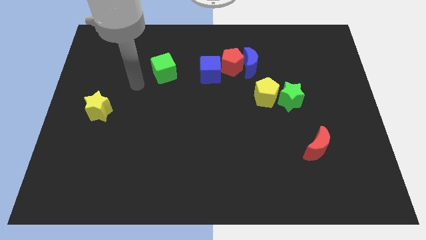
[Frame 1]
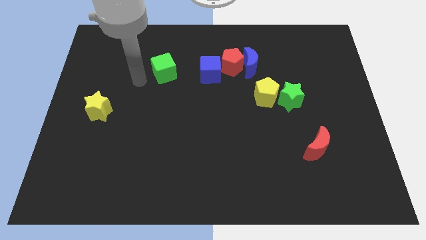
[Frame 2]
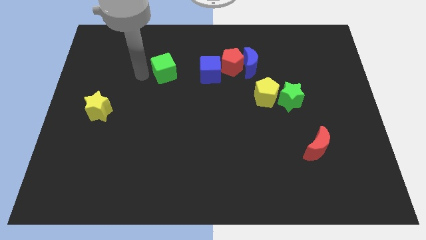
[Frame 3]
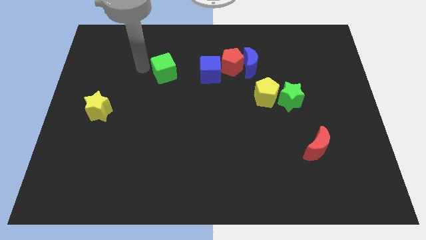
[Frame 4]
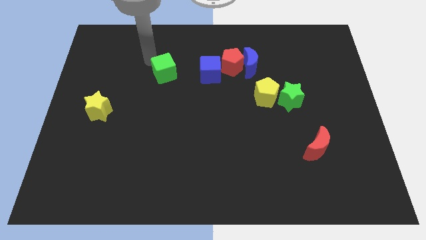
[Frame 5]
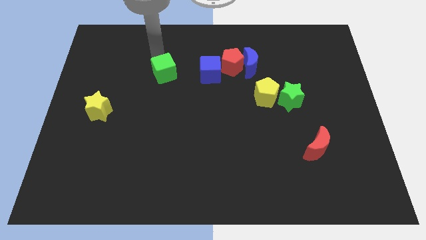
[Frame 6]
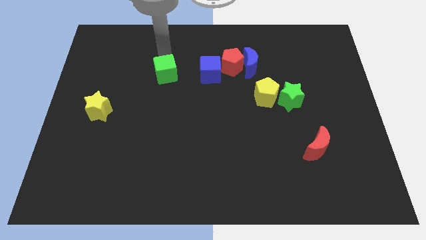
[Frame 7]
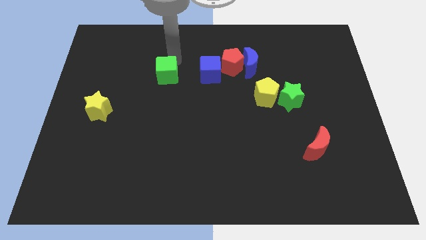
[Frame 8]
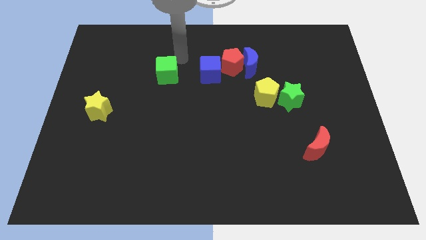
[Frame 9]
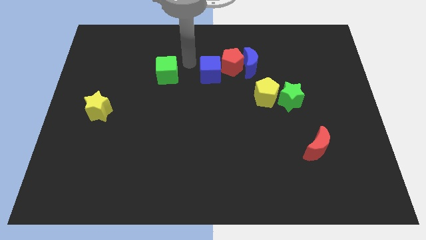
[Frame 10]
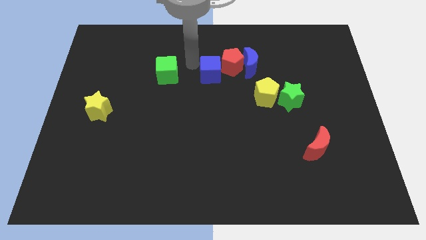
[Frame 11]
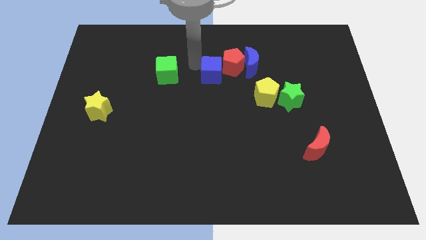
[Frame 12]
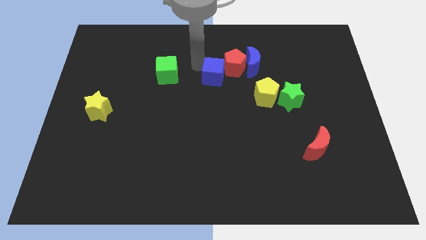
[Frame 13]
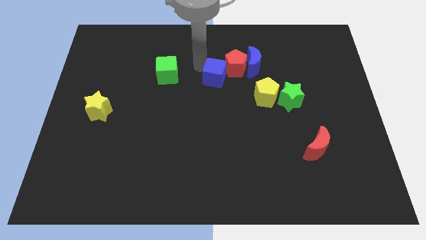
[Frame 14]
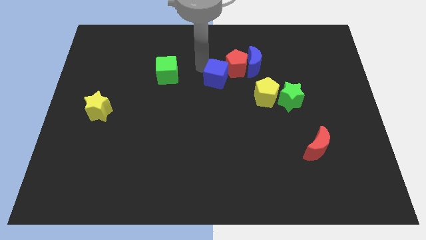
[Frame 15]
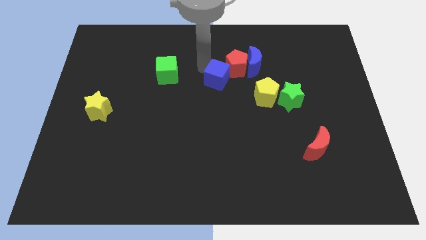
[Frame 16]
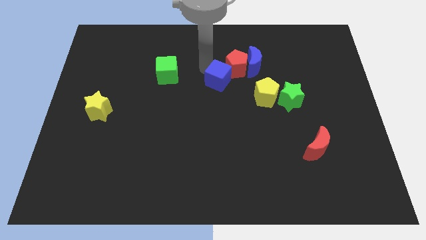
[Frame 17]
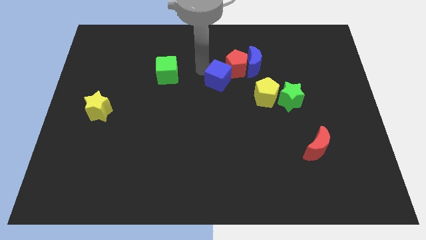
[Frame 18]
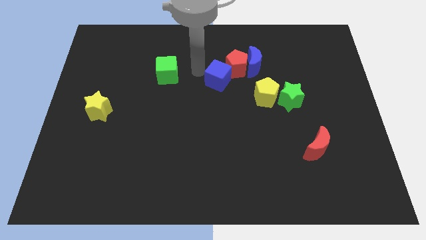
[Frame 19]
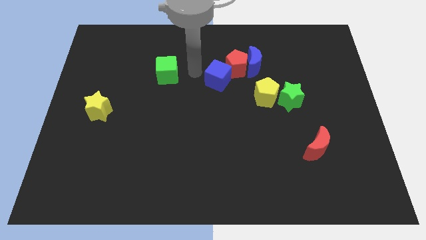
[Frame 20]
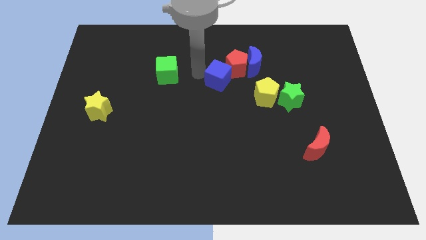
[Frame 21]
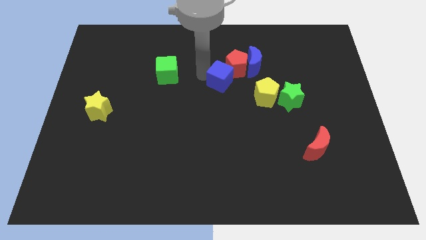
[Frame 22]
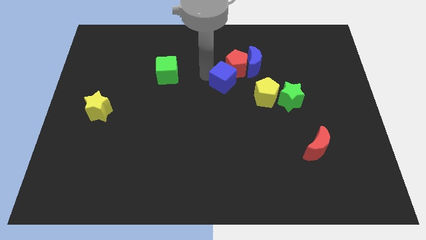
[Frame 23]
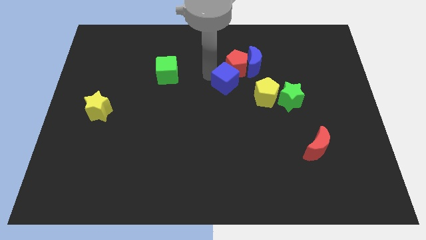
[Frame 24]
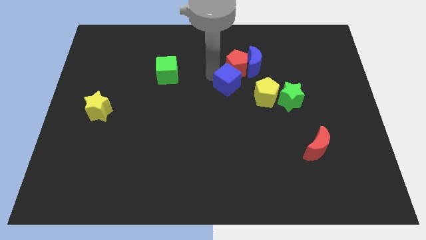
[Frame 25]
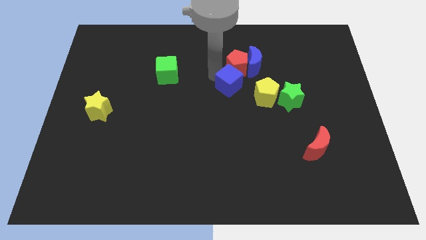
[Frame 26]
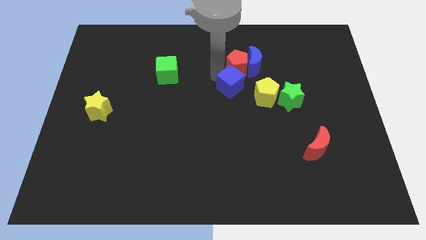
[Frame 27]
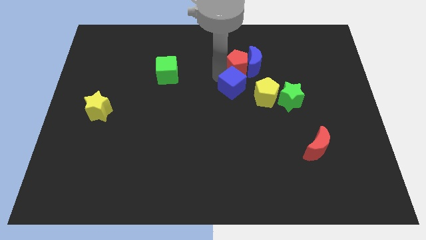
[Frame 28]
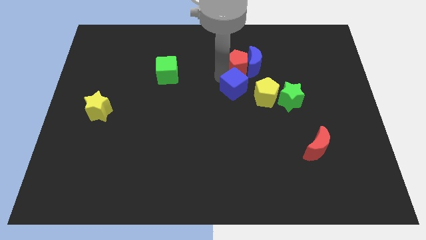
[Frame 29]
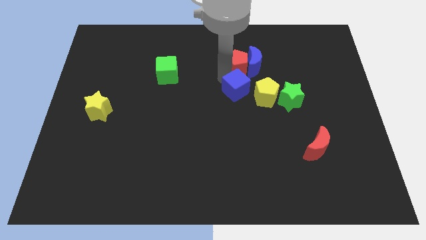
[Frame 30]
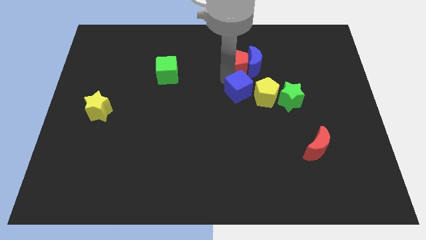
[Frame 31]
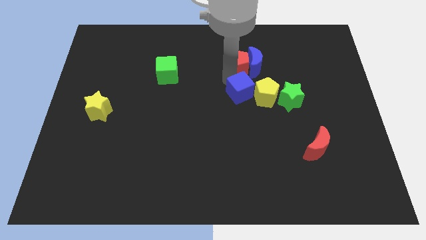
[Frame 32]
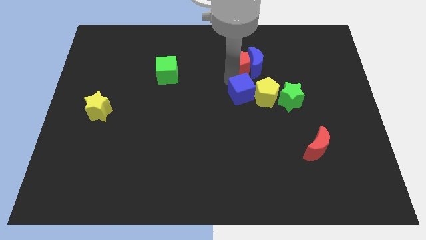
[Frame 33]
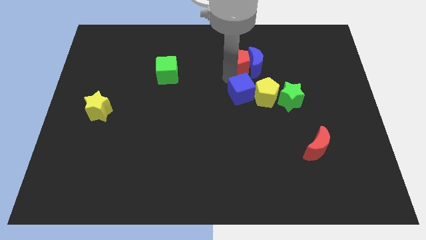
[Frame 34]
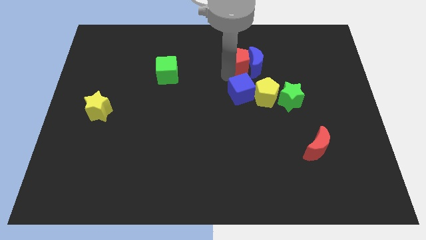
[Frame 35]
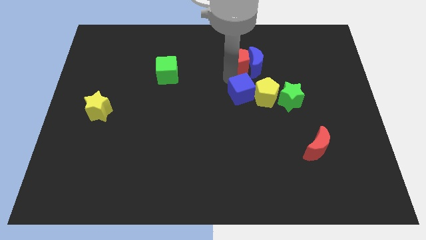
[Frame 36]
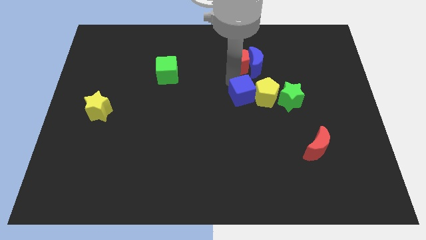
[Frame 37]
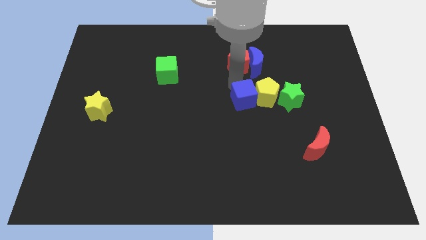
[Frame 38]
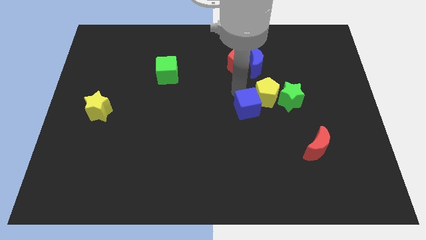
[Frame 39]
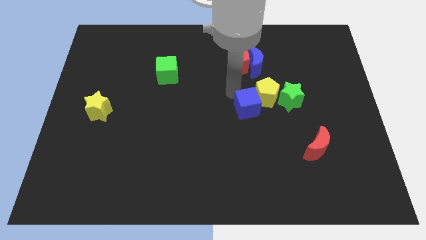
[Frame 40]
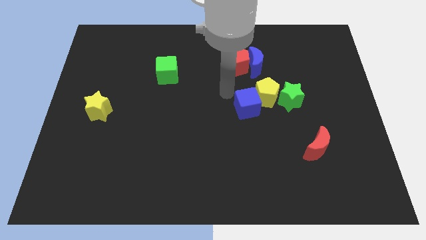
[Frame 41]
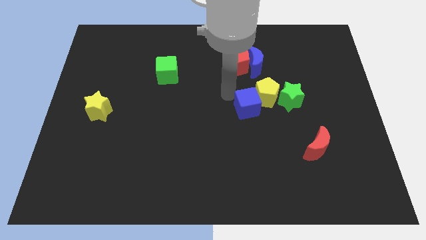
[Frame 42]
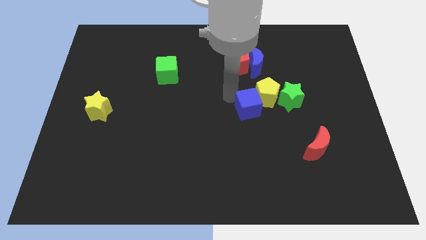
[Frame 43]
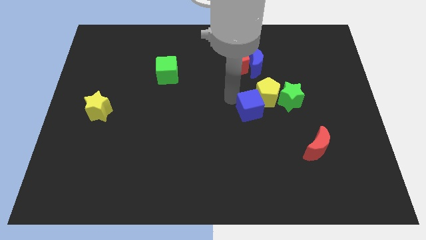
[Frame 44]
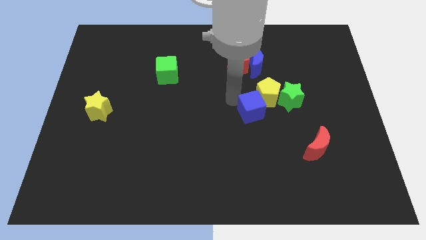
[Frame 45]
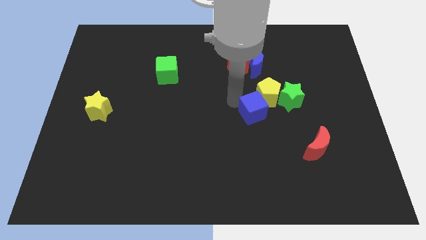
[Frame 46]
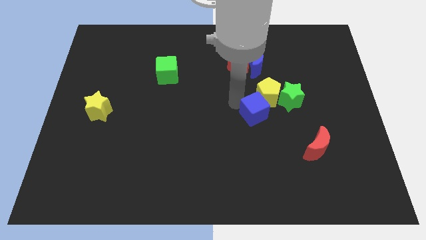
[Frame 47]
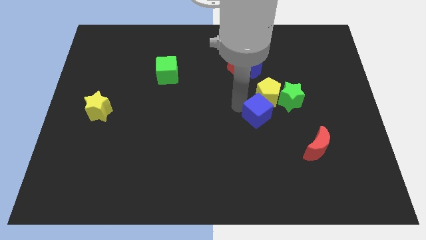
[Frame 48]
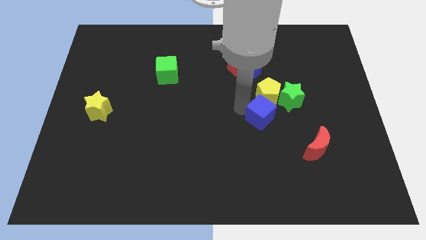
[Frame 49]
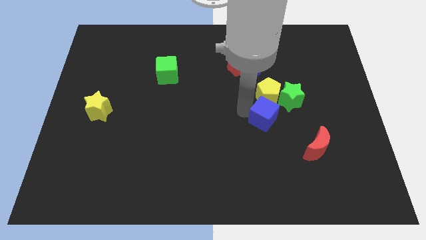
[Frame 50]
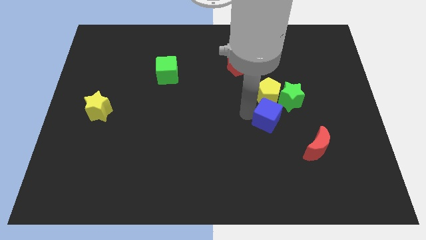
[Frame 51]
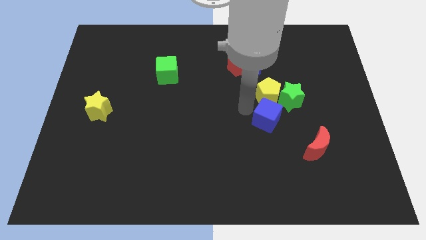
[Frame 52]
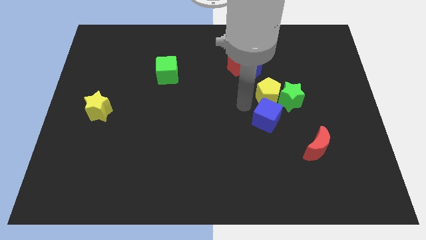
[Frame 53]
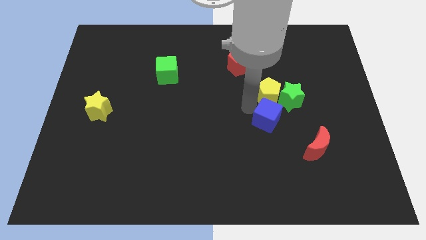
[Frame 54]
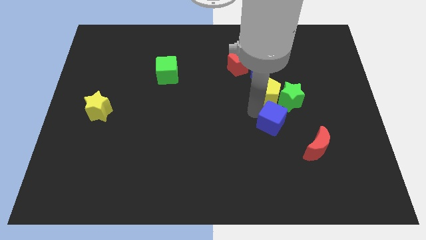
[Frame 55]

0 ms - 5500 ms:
slide the blue cube to the bottom side of the green star

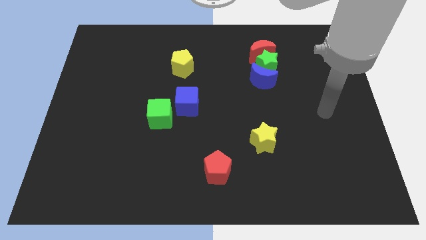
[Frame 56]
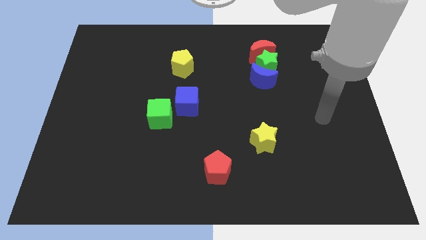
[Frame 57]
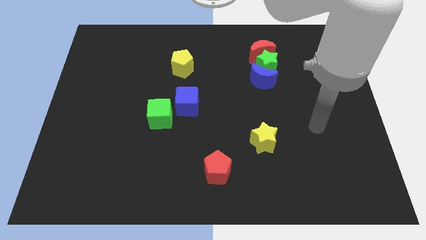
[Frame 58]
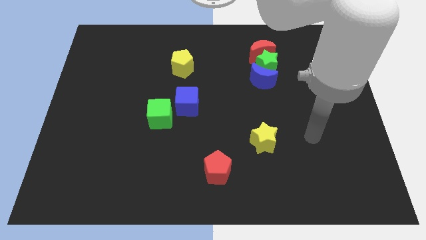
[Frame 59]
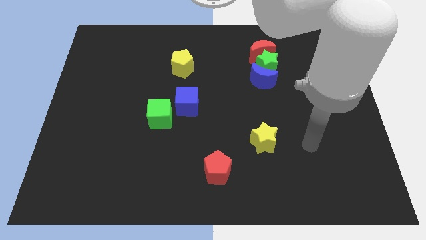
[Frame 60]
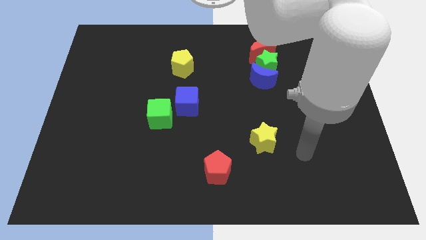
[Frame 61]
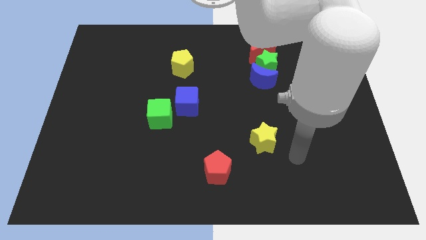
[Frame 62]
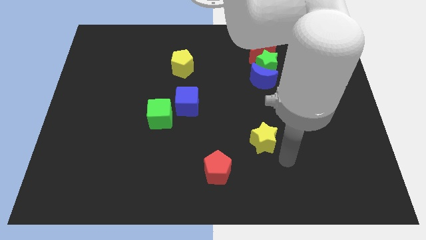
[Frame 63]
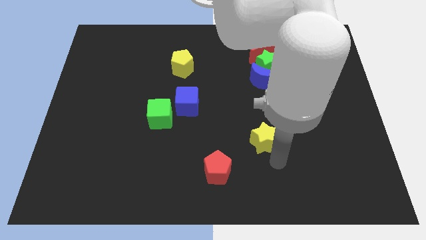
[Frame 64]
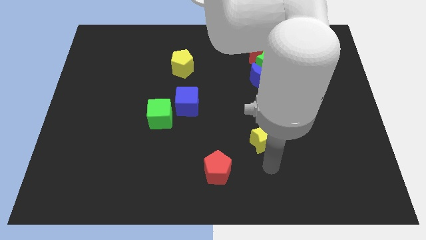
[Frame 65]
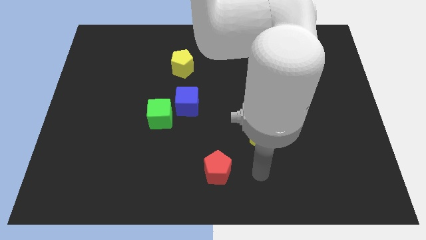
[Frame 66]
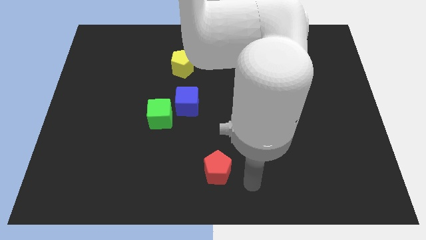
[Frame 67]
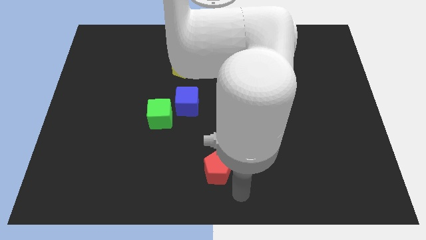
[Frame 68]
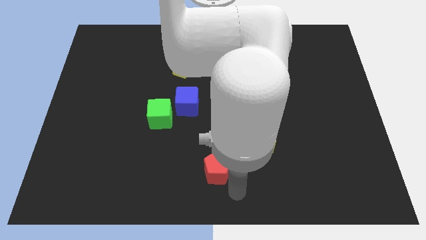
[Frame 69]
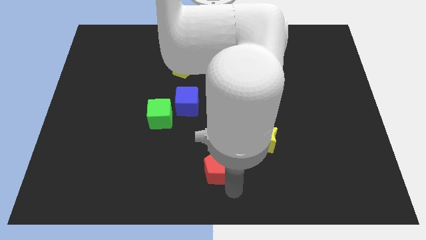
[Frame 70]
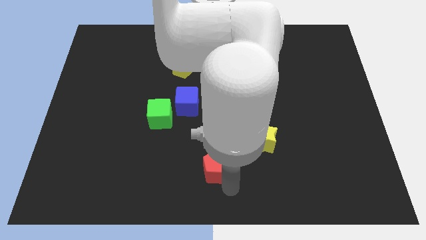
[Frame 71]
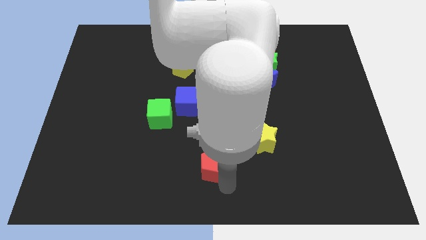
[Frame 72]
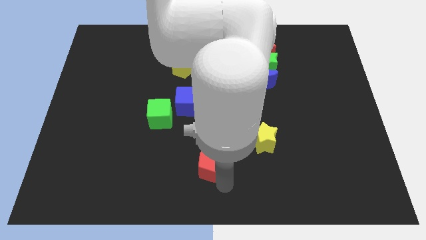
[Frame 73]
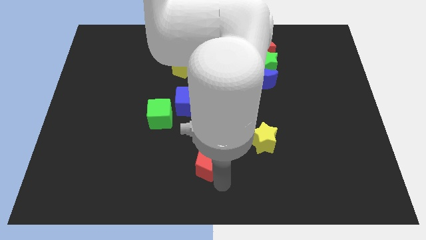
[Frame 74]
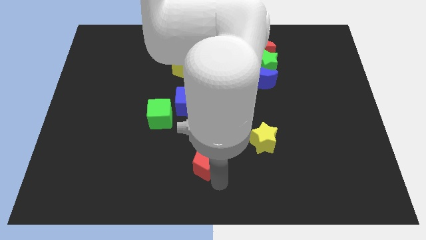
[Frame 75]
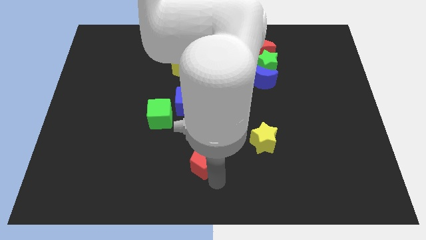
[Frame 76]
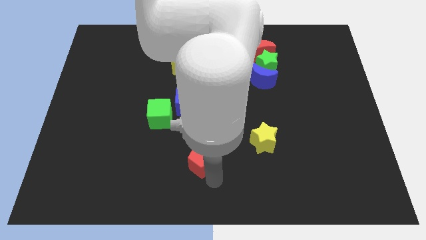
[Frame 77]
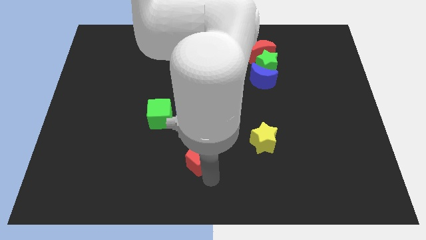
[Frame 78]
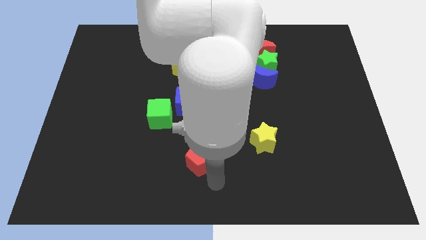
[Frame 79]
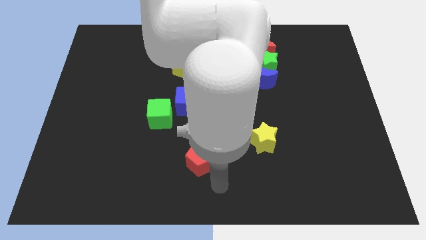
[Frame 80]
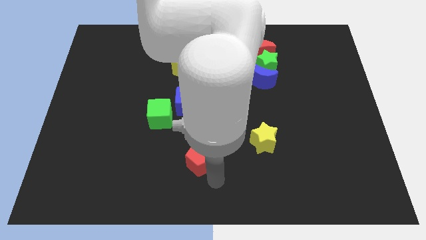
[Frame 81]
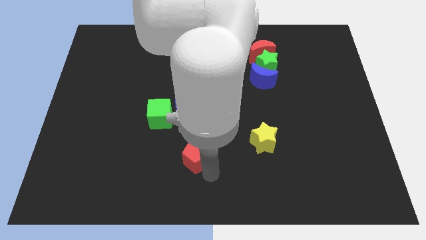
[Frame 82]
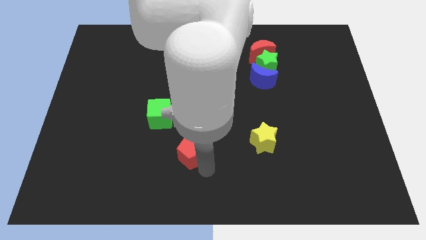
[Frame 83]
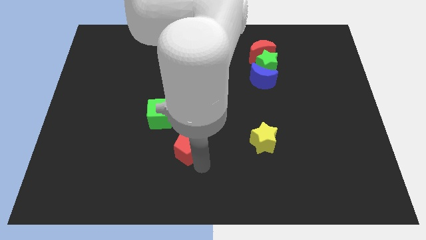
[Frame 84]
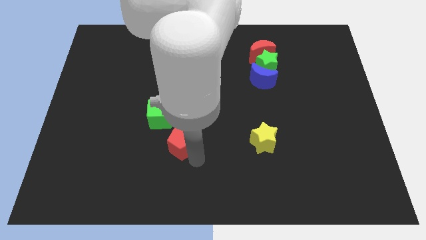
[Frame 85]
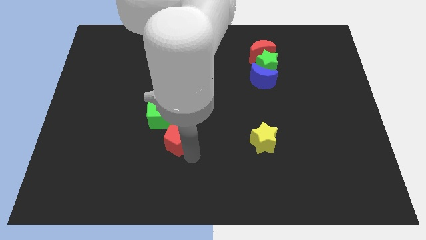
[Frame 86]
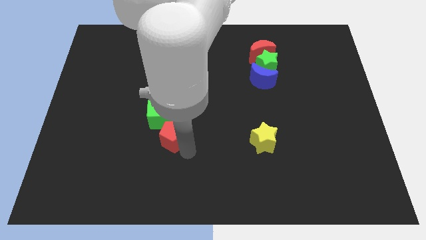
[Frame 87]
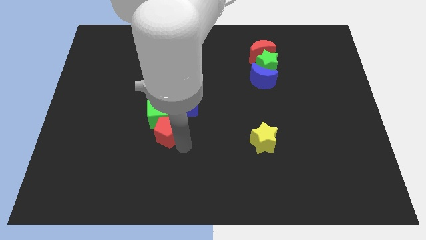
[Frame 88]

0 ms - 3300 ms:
push the red pentagon to the bottom left of the blue cube
